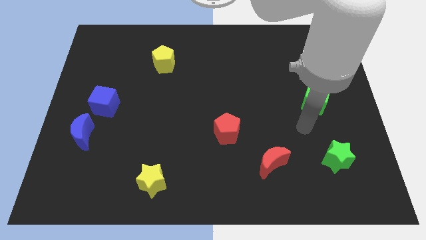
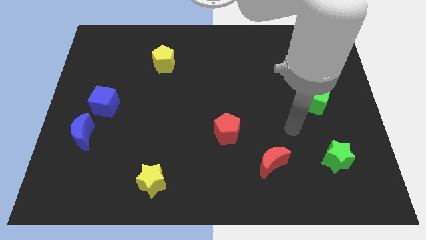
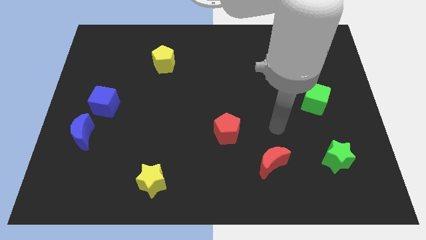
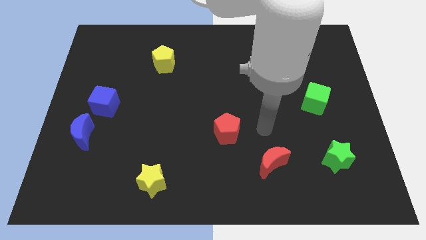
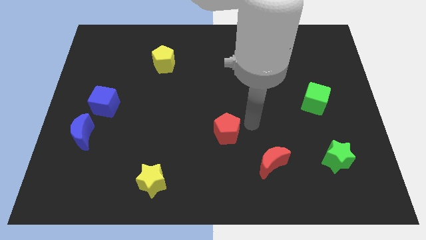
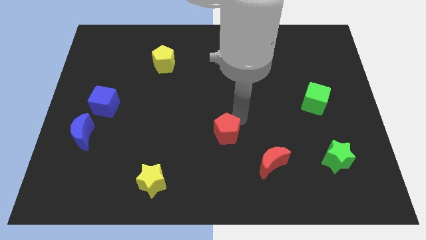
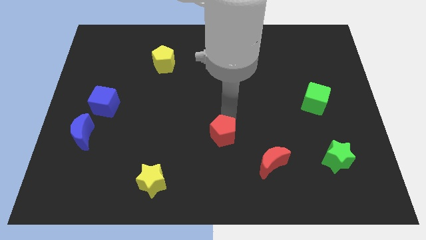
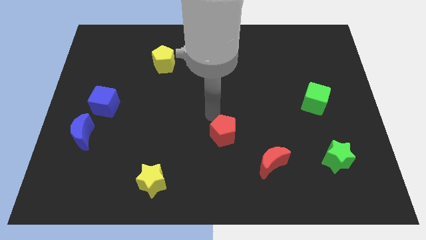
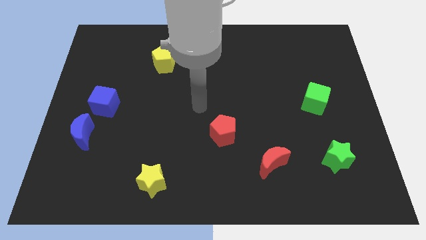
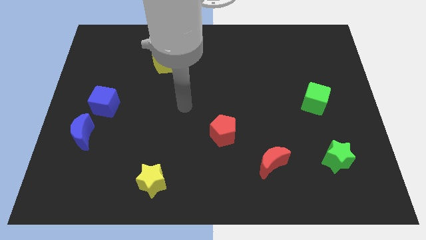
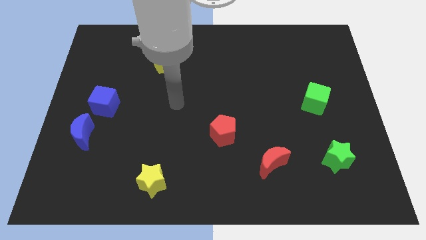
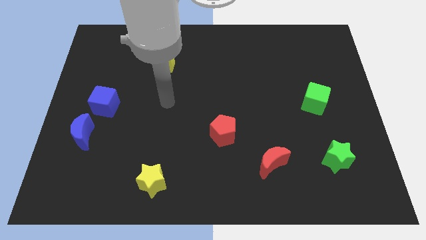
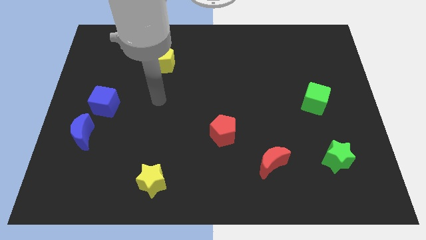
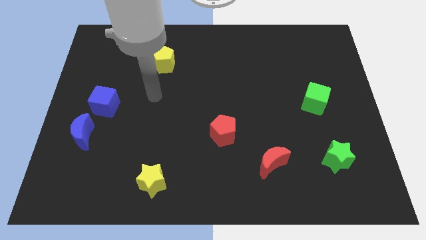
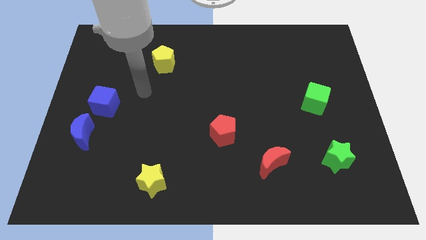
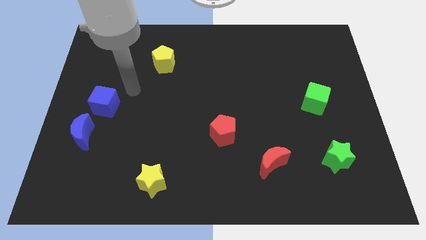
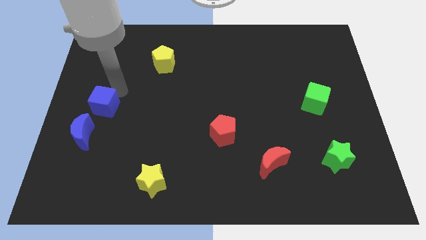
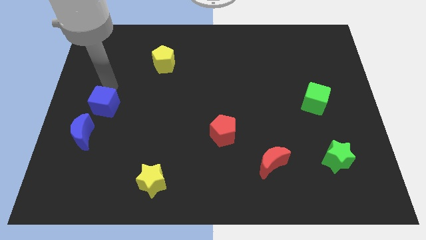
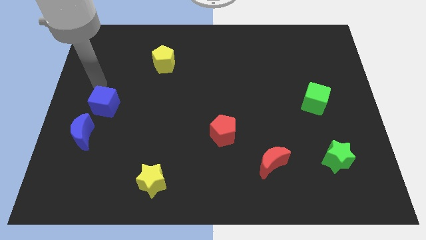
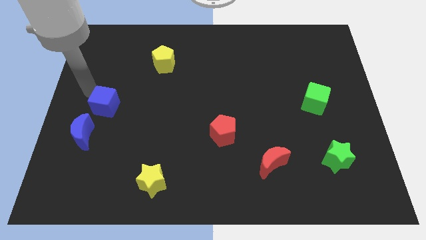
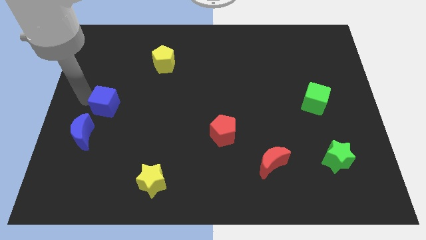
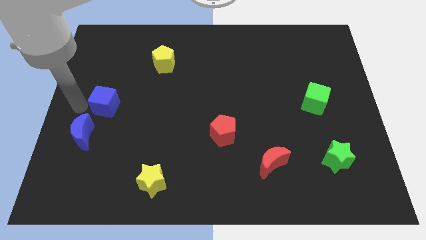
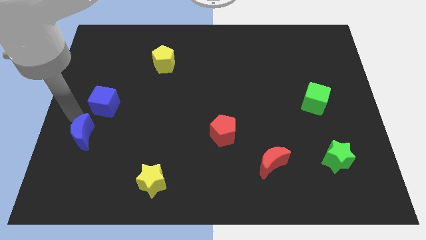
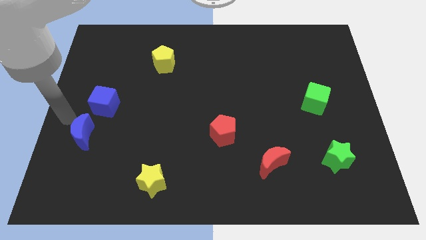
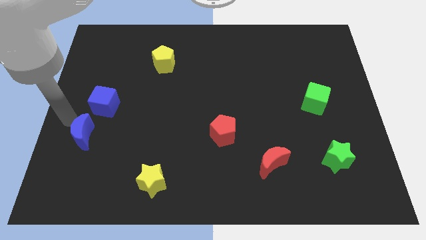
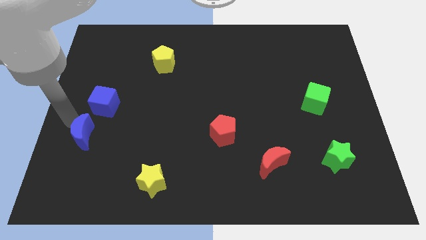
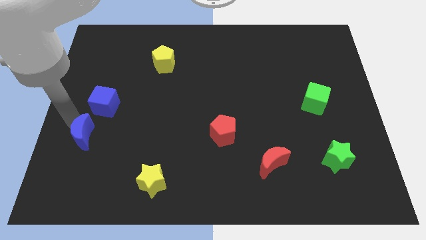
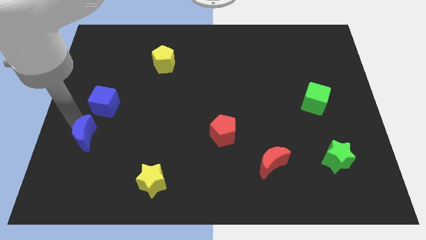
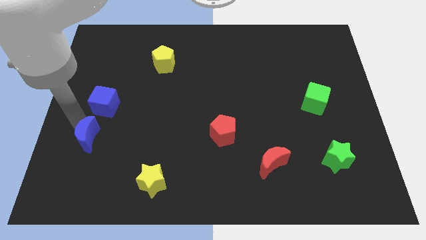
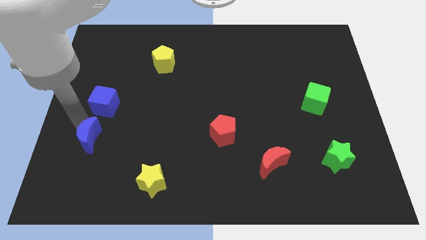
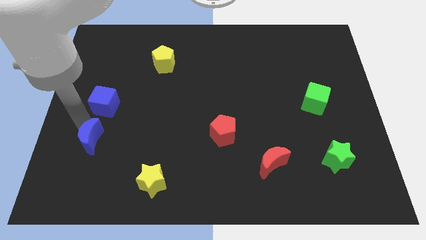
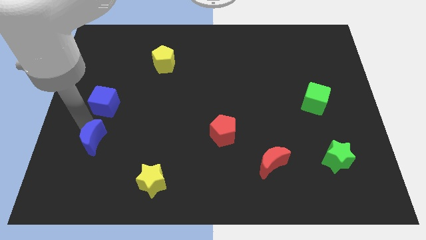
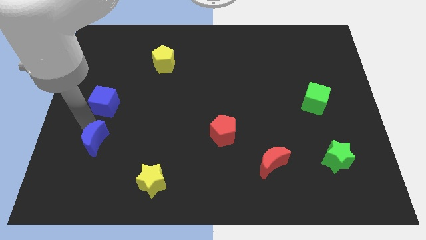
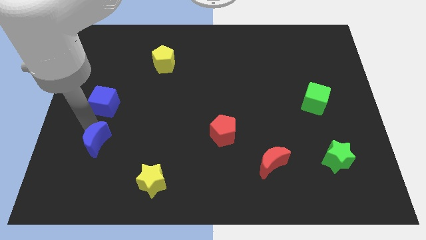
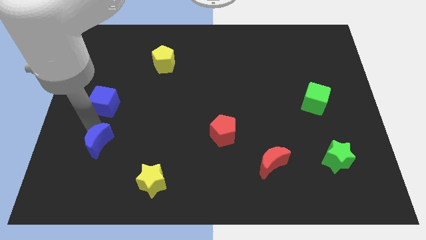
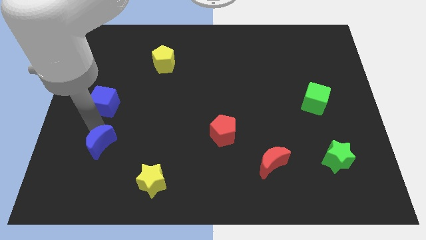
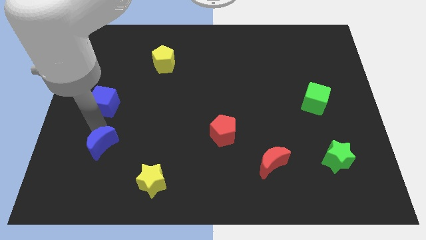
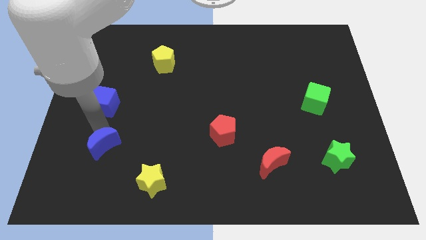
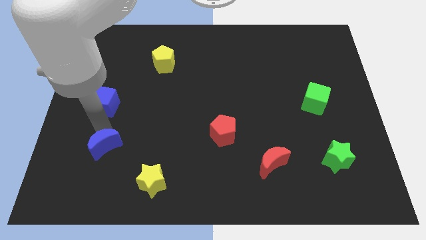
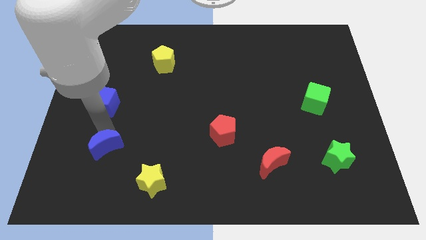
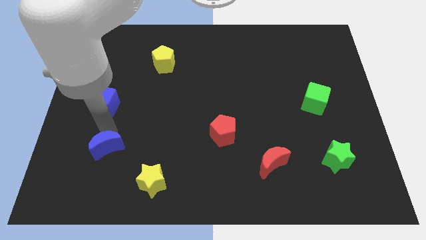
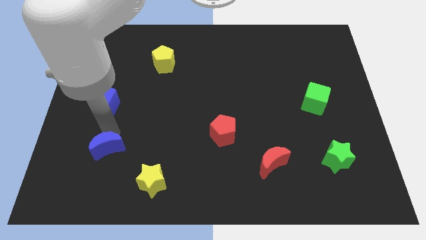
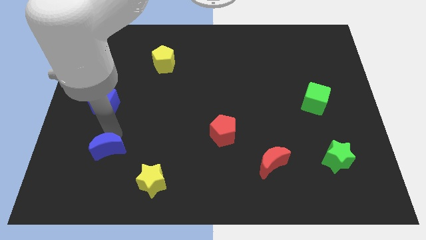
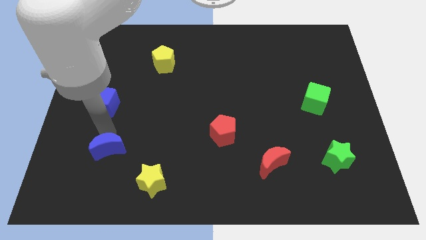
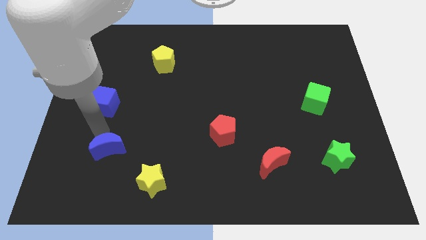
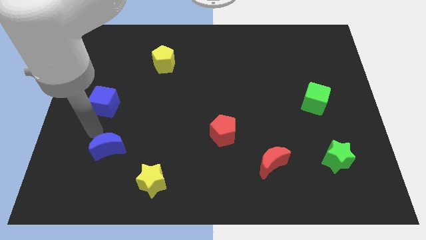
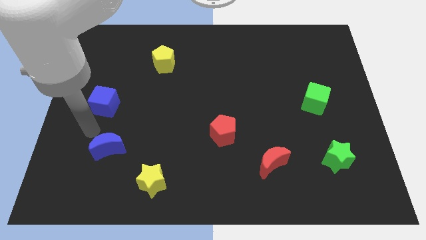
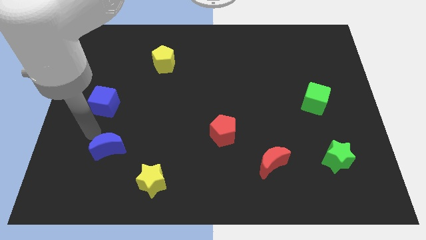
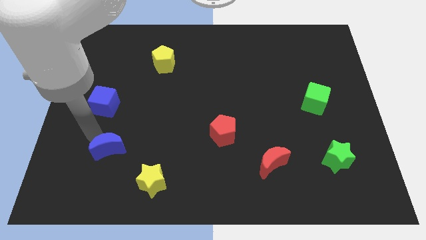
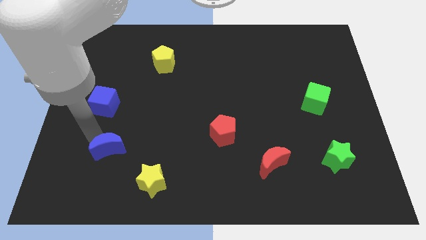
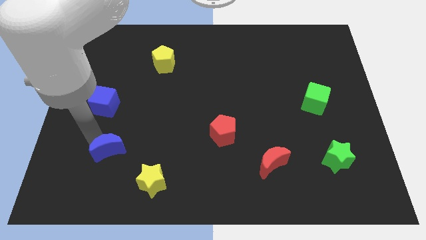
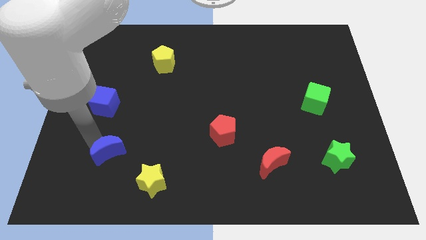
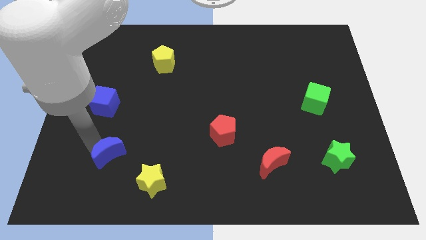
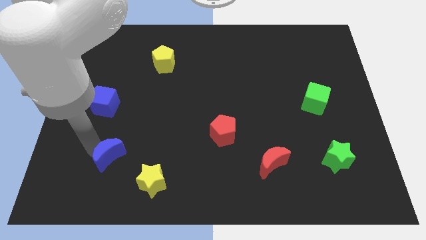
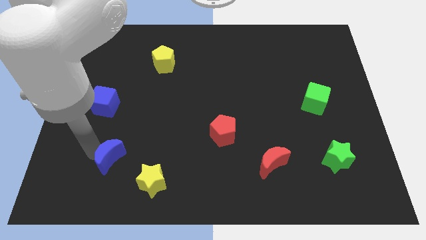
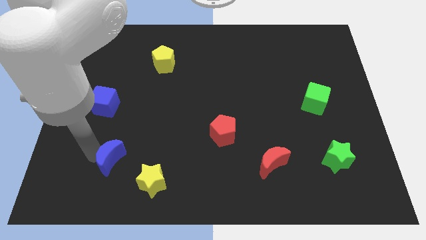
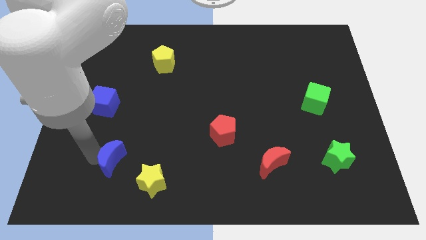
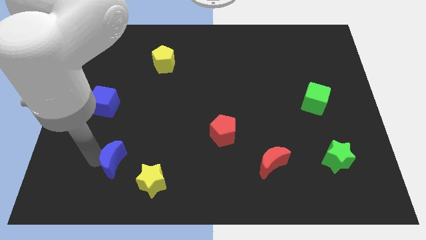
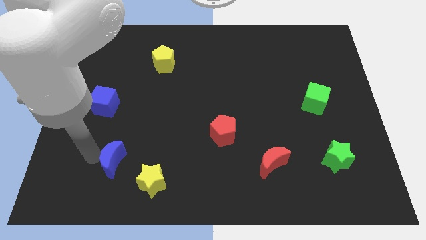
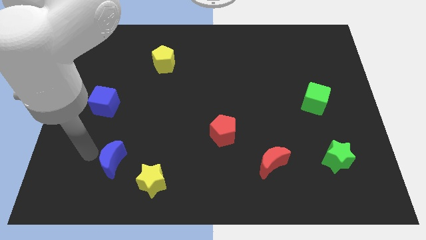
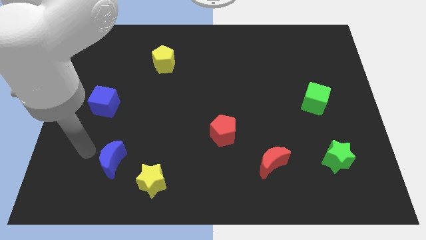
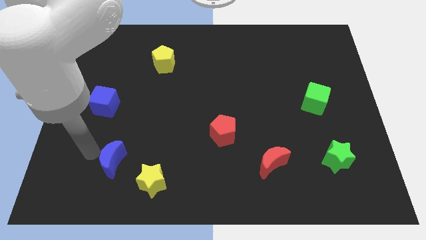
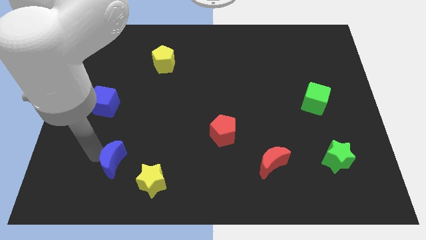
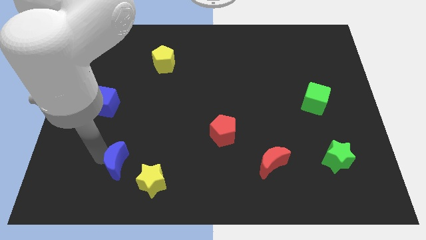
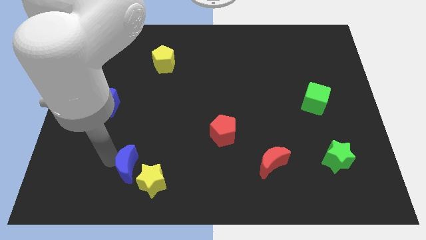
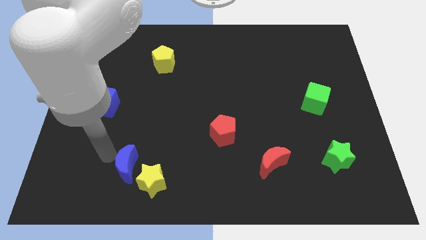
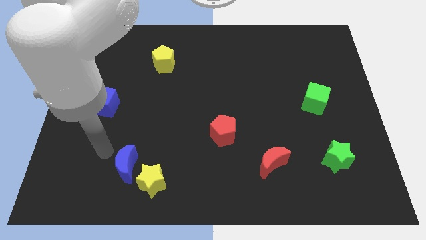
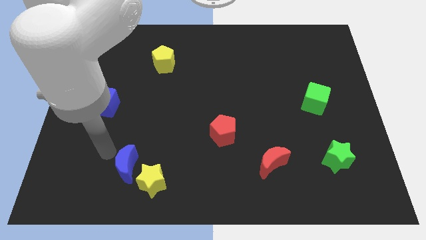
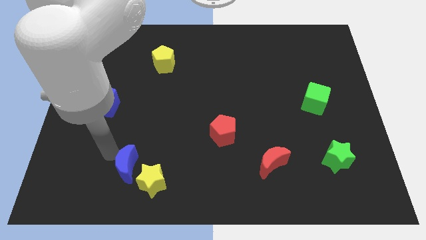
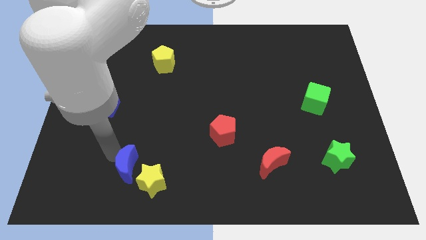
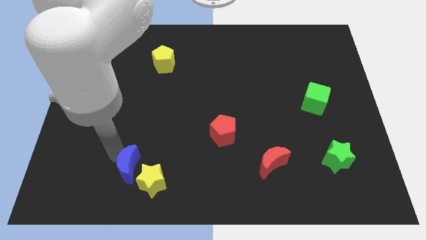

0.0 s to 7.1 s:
move the blue moon next to the yellow star
